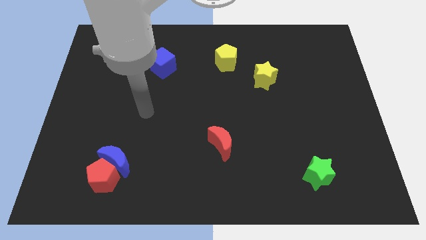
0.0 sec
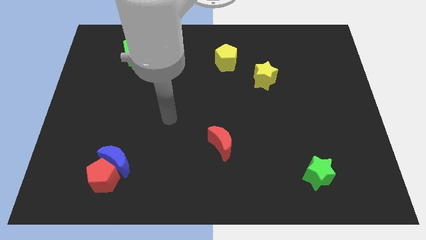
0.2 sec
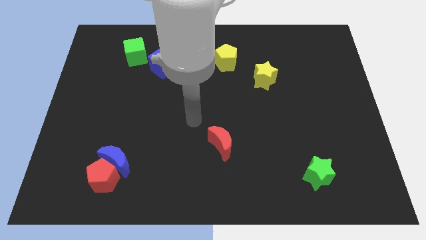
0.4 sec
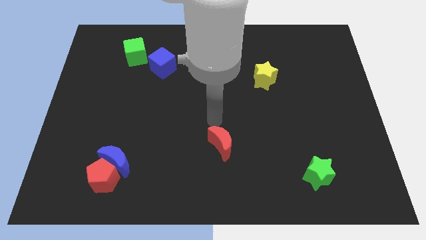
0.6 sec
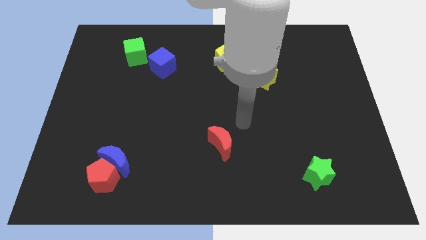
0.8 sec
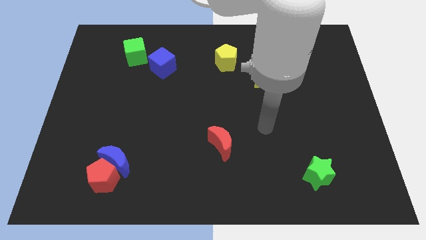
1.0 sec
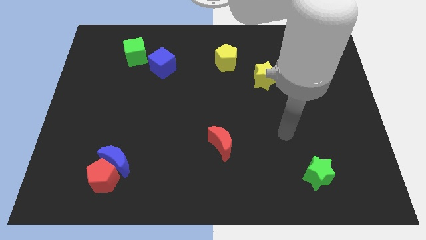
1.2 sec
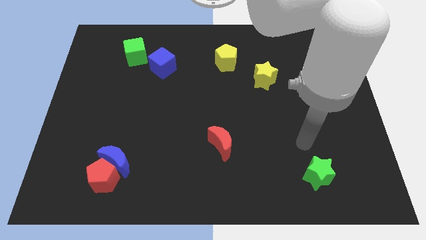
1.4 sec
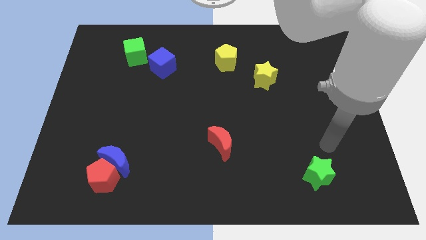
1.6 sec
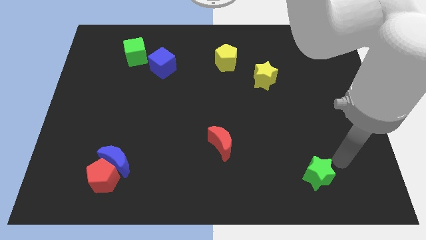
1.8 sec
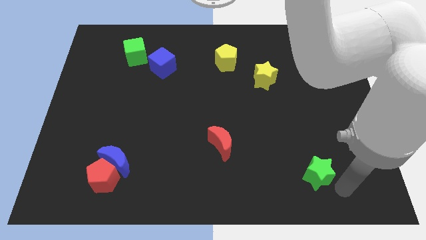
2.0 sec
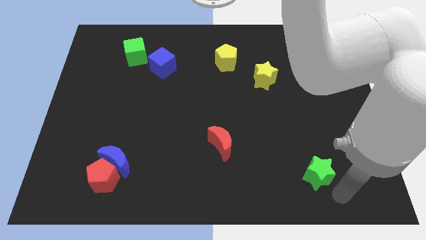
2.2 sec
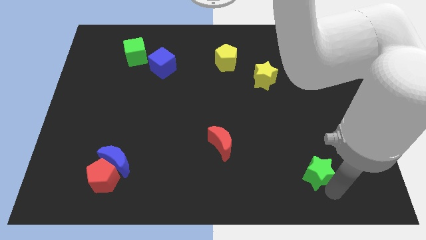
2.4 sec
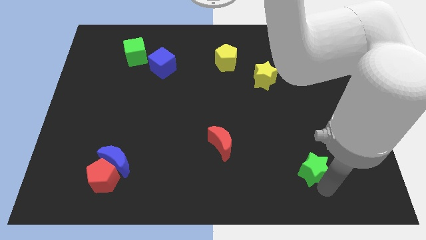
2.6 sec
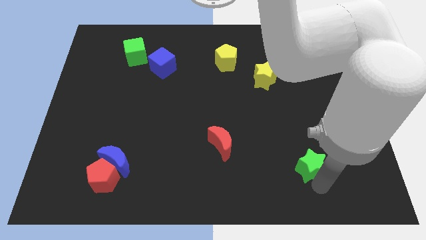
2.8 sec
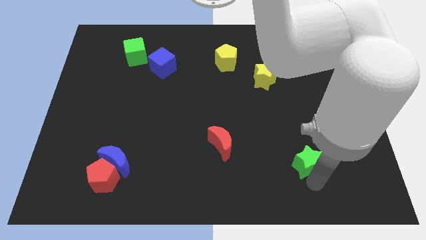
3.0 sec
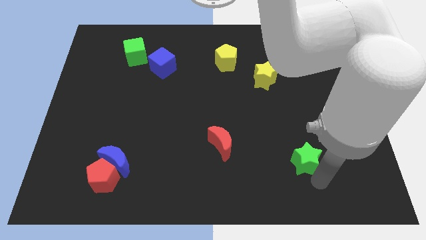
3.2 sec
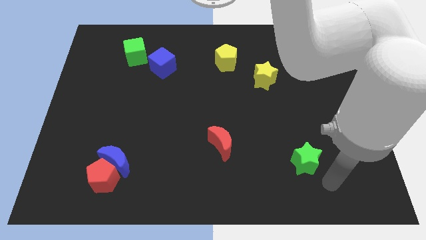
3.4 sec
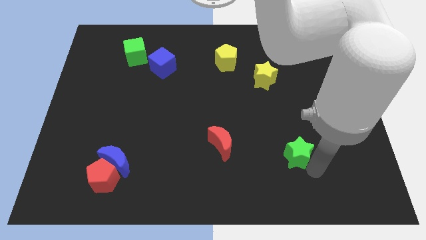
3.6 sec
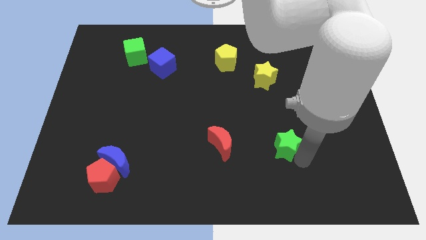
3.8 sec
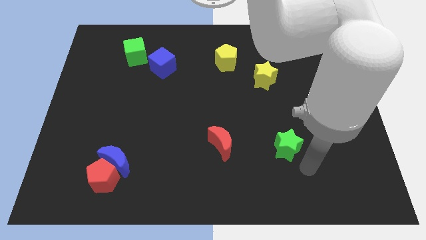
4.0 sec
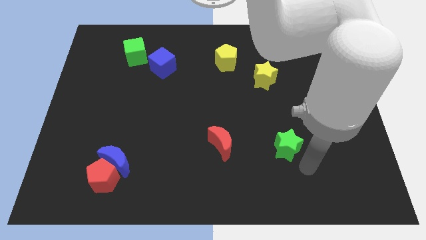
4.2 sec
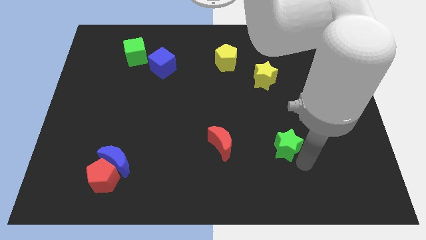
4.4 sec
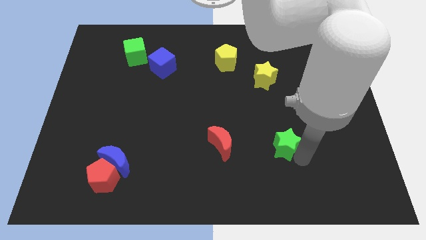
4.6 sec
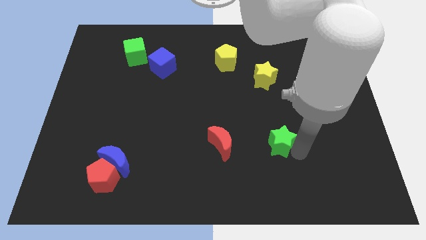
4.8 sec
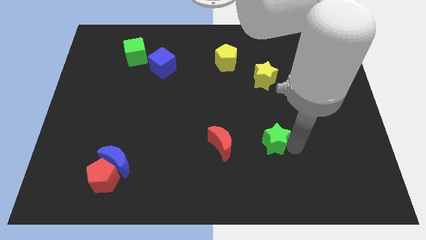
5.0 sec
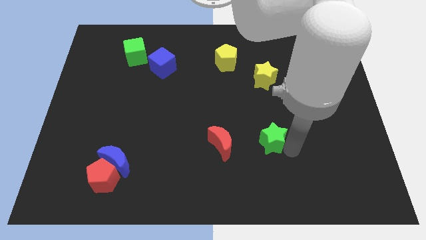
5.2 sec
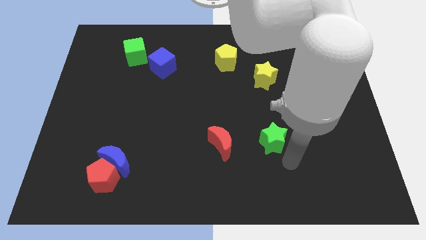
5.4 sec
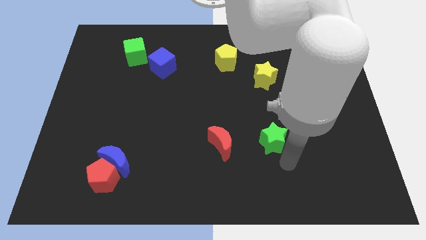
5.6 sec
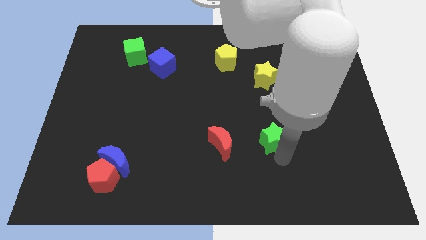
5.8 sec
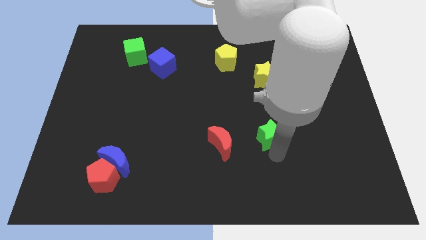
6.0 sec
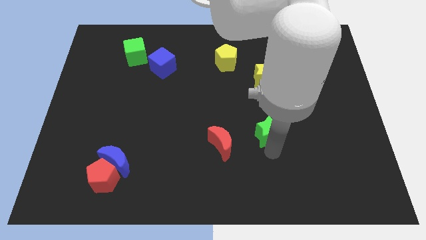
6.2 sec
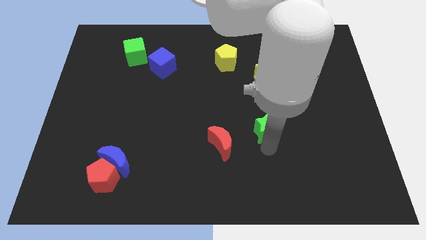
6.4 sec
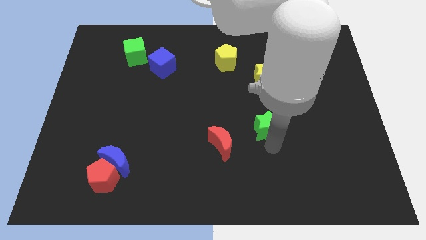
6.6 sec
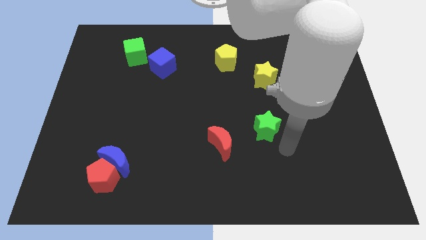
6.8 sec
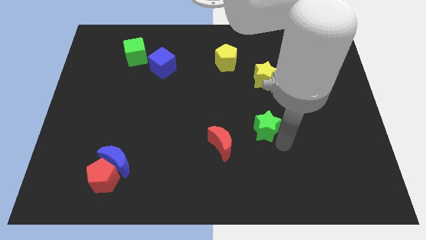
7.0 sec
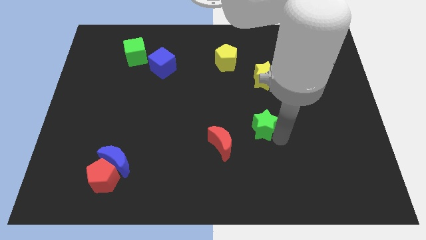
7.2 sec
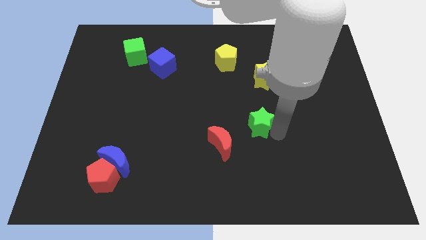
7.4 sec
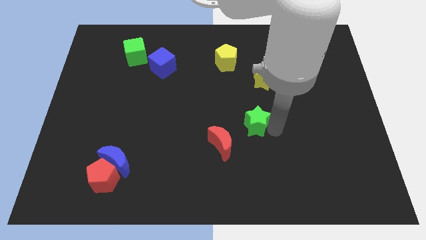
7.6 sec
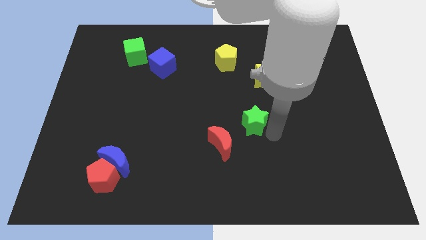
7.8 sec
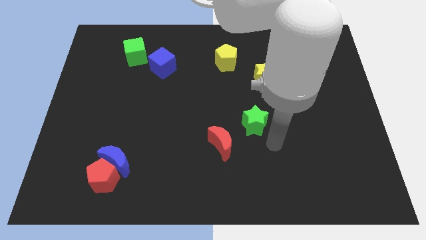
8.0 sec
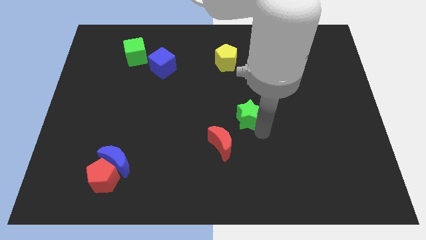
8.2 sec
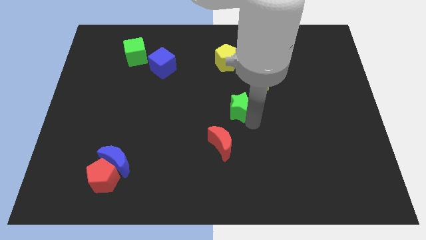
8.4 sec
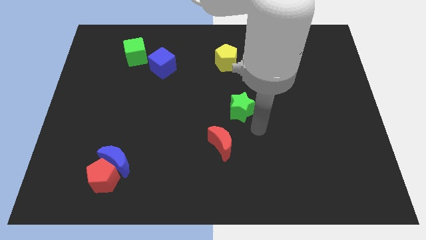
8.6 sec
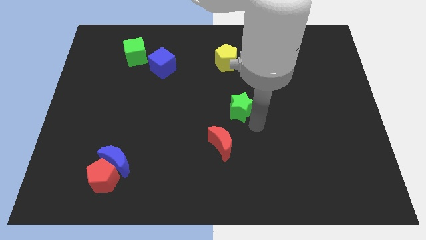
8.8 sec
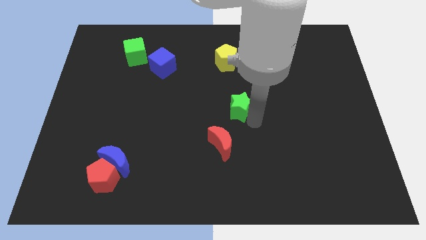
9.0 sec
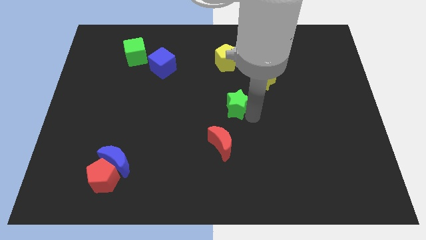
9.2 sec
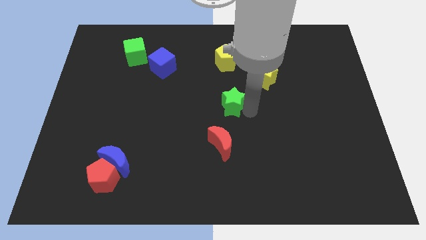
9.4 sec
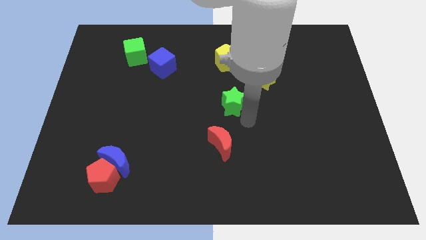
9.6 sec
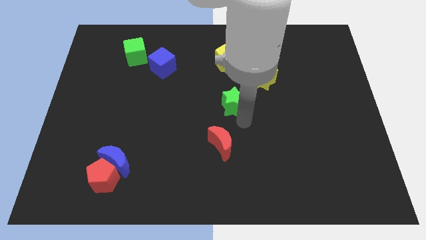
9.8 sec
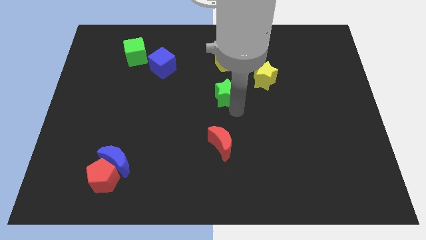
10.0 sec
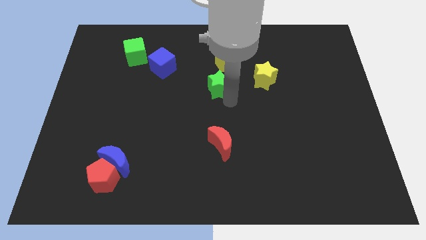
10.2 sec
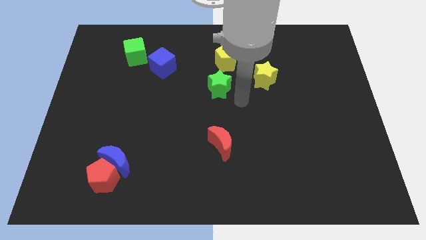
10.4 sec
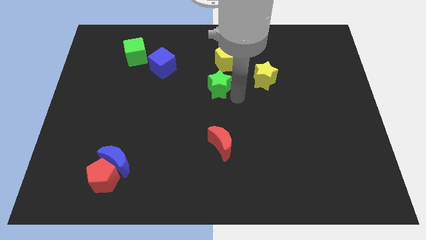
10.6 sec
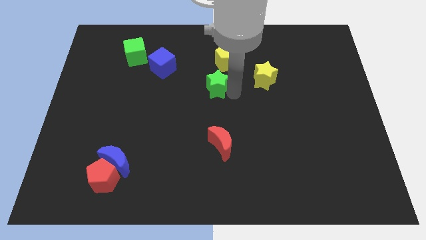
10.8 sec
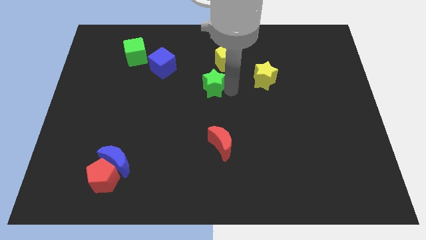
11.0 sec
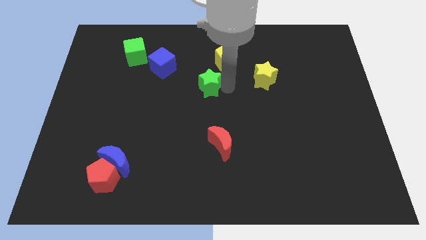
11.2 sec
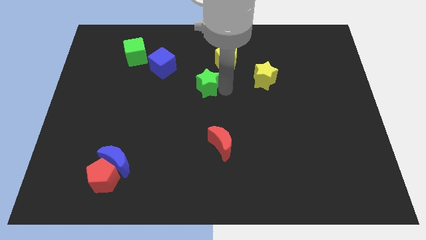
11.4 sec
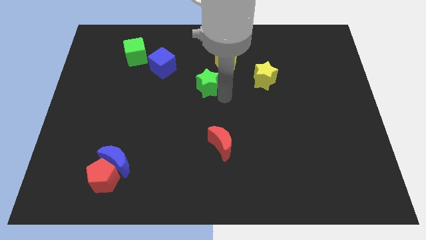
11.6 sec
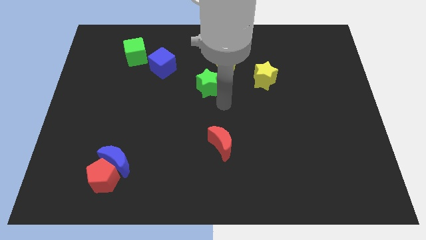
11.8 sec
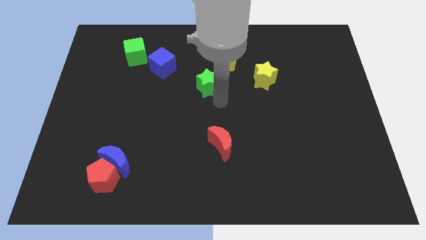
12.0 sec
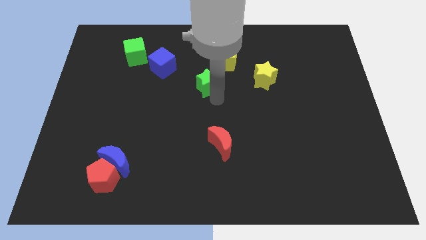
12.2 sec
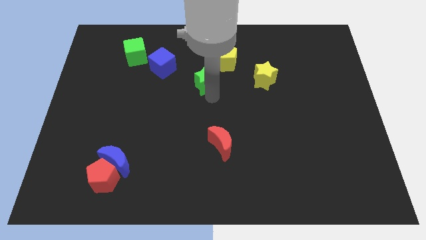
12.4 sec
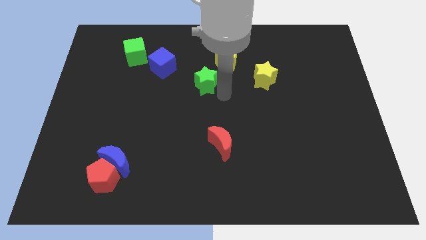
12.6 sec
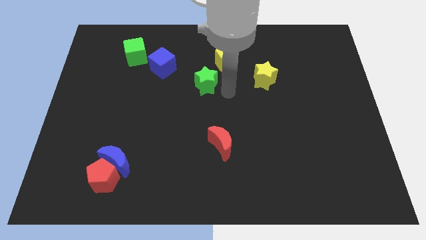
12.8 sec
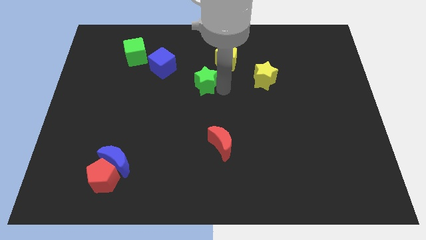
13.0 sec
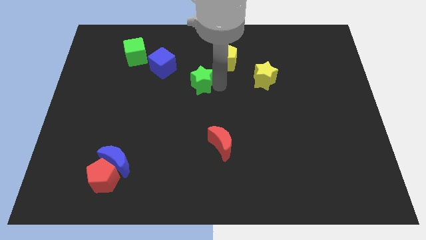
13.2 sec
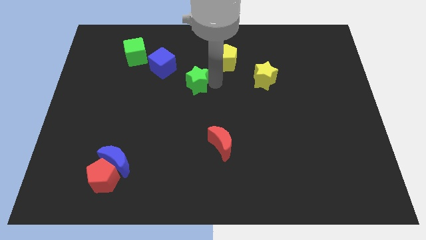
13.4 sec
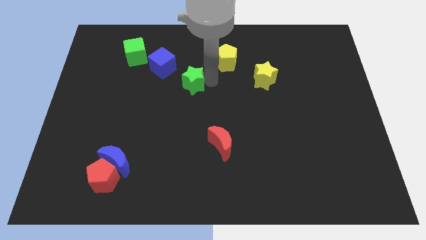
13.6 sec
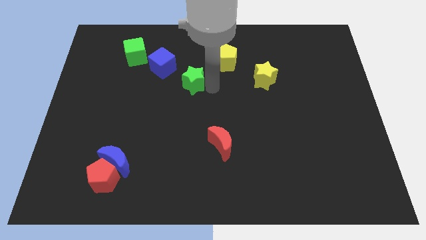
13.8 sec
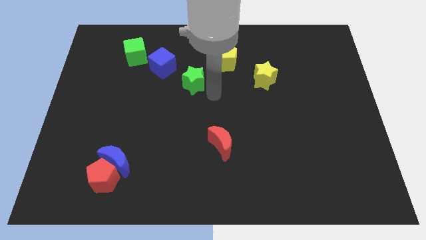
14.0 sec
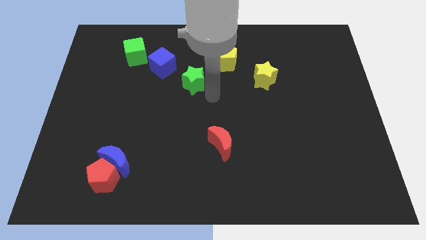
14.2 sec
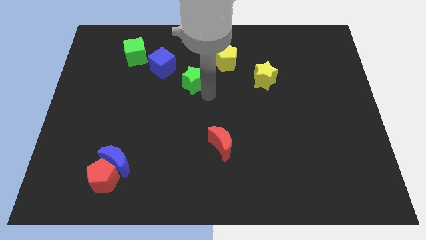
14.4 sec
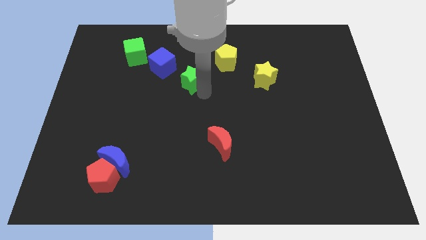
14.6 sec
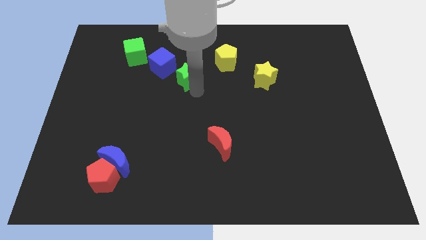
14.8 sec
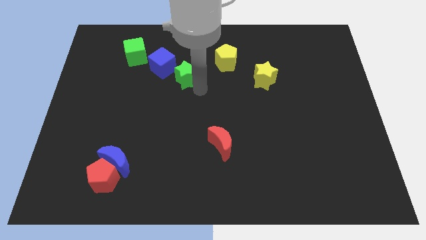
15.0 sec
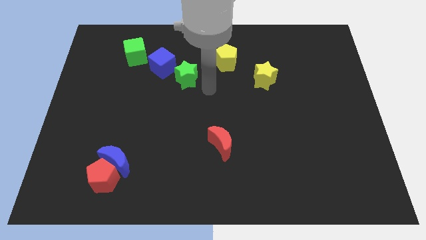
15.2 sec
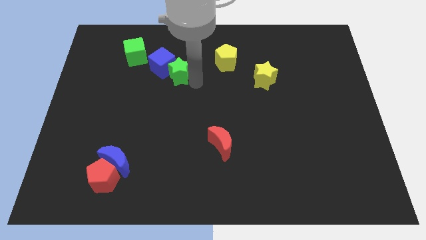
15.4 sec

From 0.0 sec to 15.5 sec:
slide the green star to the blue cube
